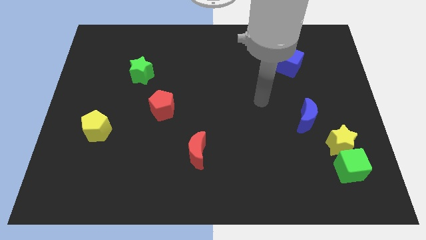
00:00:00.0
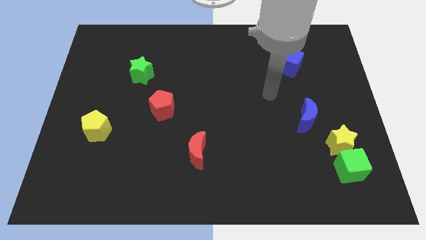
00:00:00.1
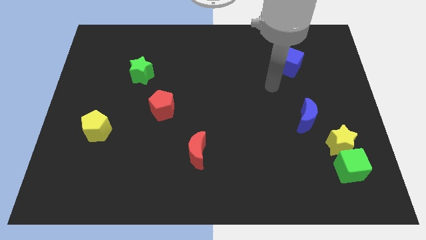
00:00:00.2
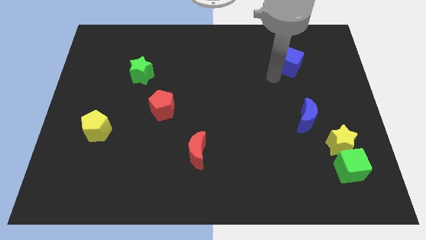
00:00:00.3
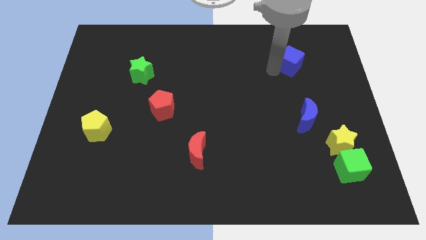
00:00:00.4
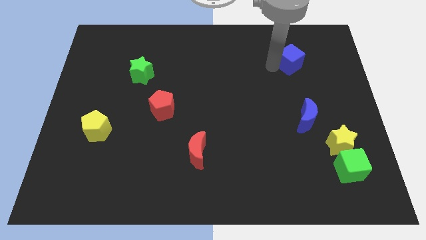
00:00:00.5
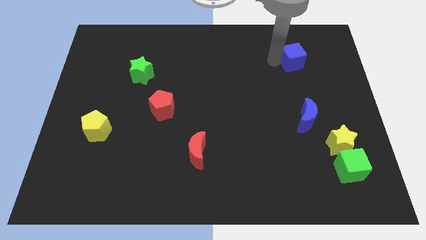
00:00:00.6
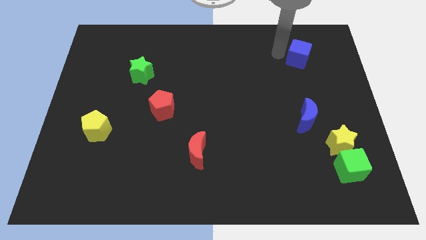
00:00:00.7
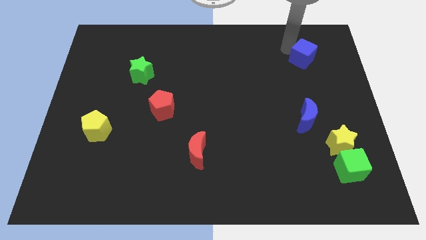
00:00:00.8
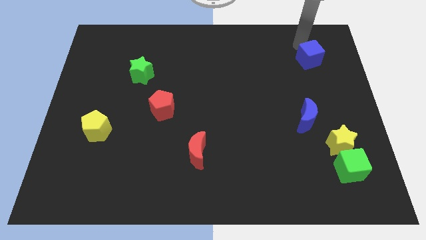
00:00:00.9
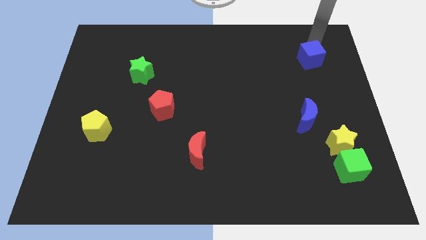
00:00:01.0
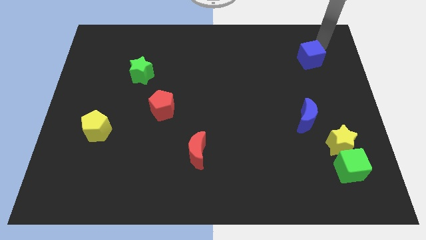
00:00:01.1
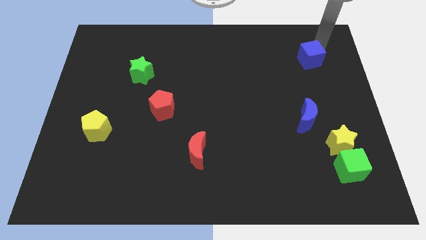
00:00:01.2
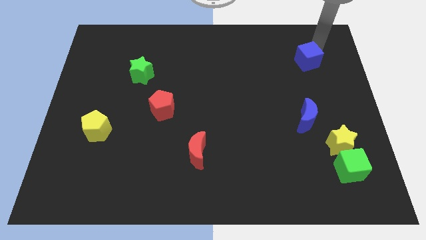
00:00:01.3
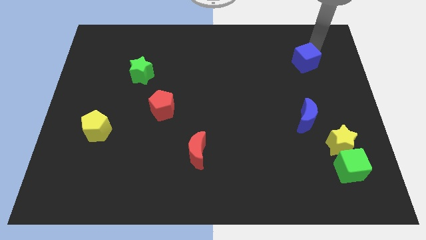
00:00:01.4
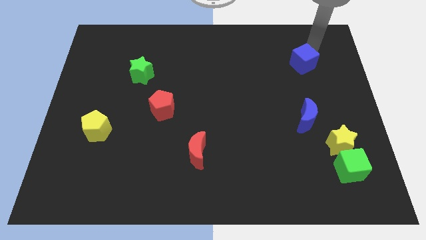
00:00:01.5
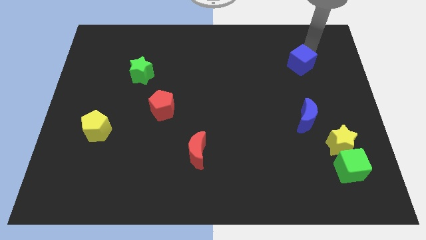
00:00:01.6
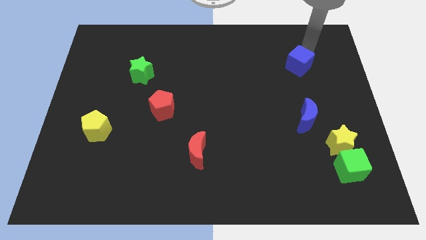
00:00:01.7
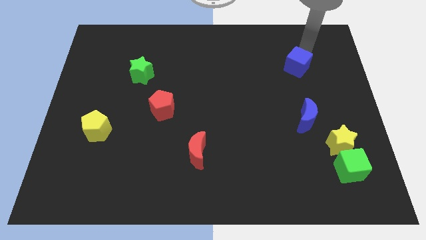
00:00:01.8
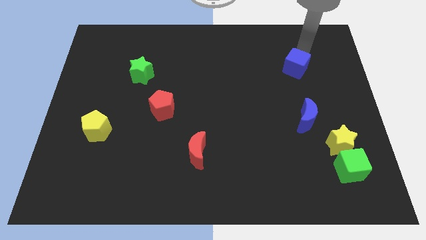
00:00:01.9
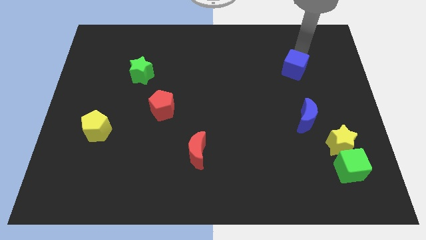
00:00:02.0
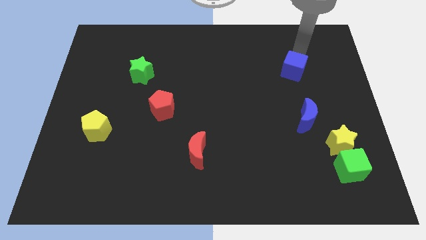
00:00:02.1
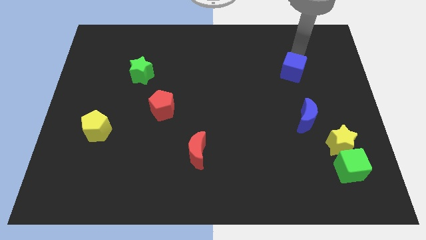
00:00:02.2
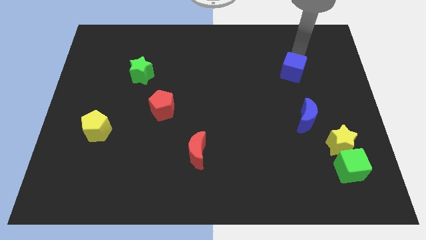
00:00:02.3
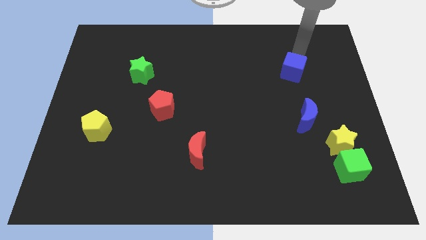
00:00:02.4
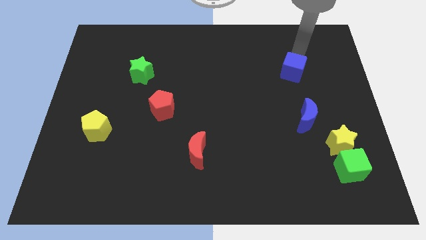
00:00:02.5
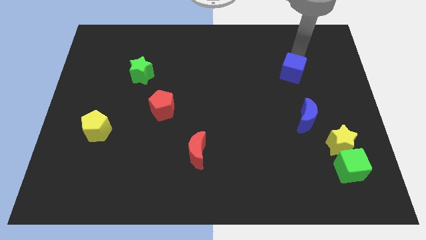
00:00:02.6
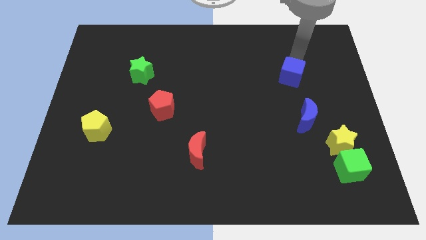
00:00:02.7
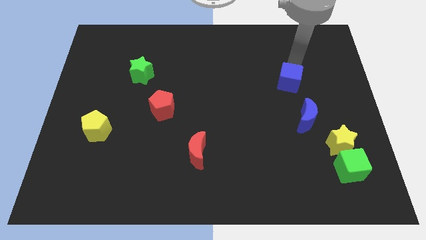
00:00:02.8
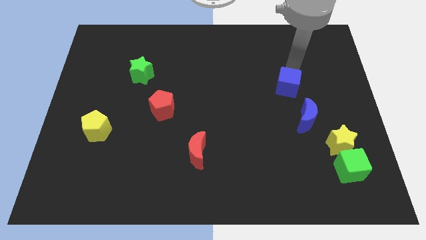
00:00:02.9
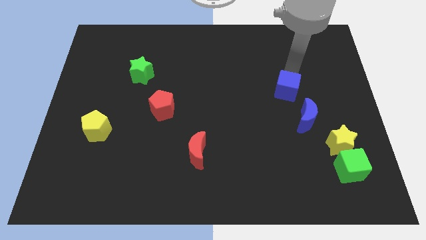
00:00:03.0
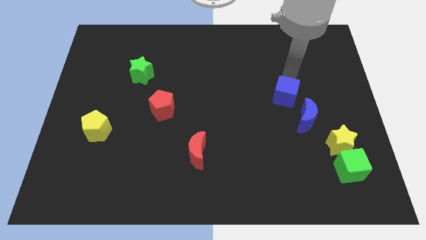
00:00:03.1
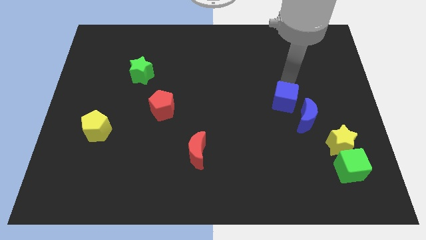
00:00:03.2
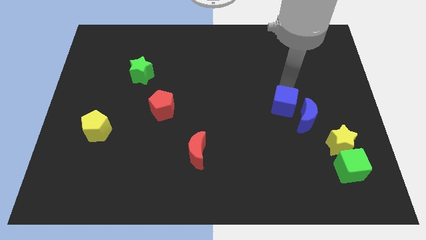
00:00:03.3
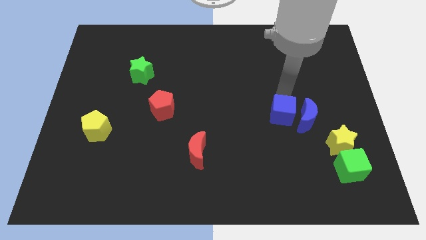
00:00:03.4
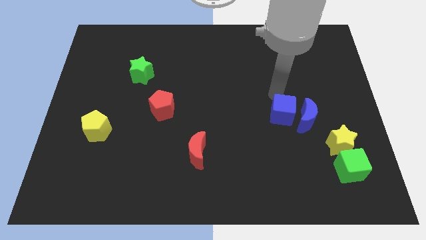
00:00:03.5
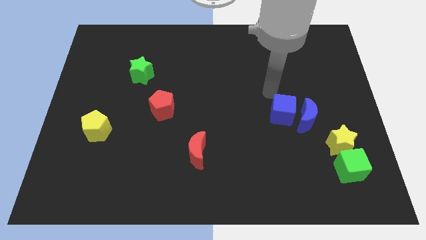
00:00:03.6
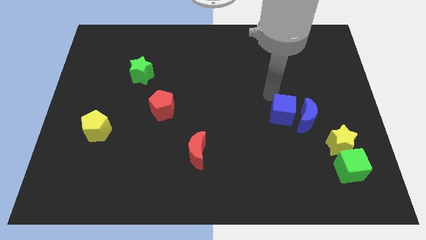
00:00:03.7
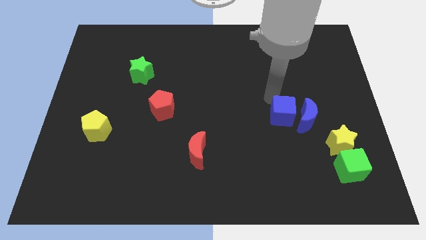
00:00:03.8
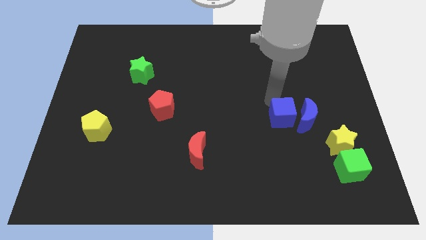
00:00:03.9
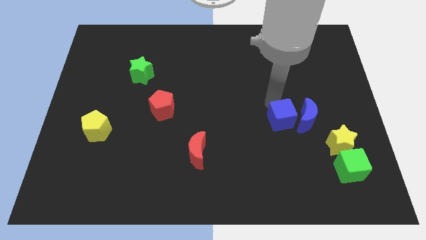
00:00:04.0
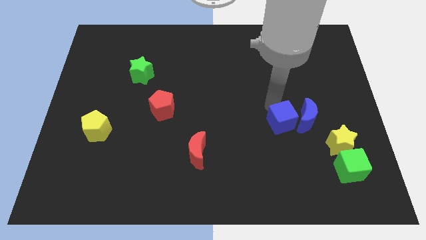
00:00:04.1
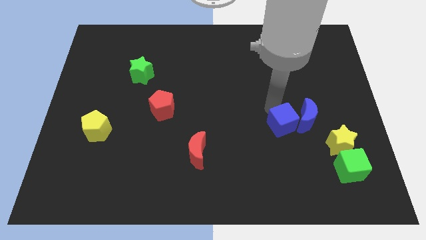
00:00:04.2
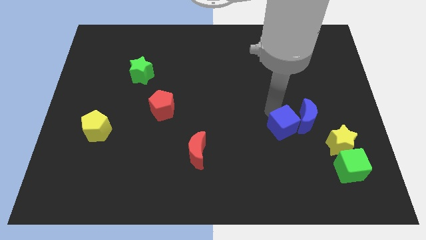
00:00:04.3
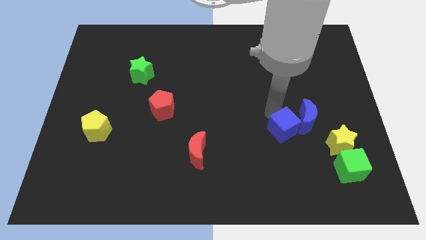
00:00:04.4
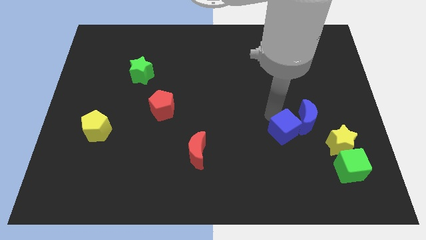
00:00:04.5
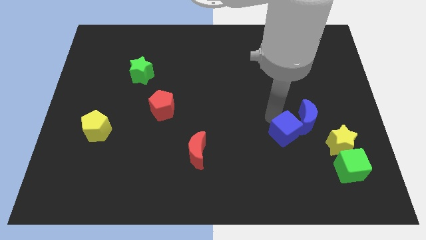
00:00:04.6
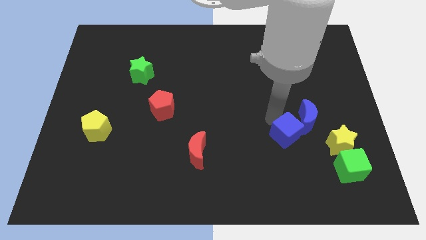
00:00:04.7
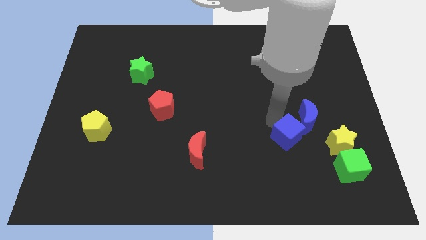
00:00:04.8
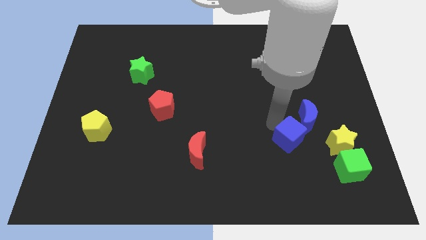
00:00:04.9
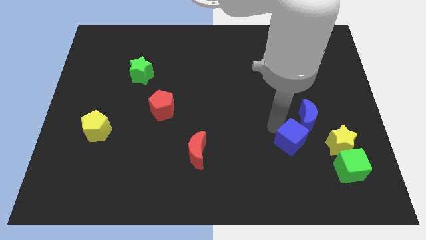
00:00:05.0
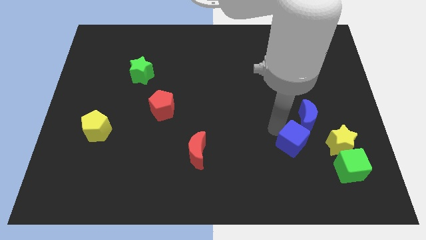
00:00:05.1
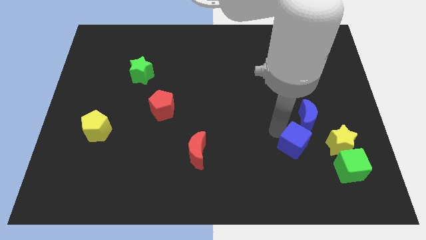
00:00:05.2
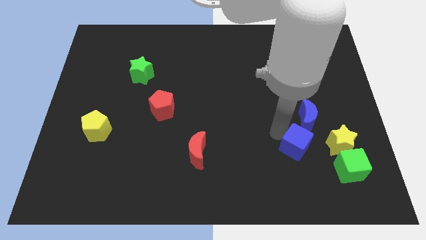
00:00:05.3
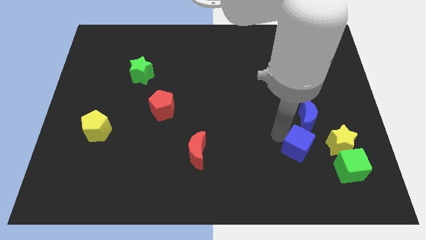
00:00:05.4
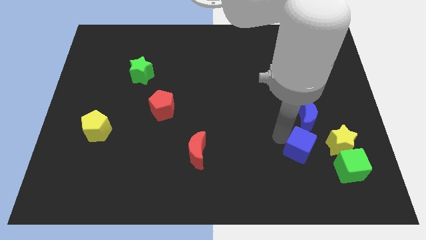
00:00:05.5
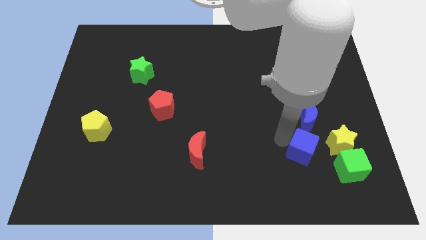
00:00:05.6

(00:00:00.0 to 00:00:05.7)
slide the blue cube to the bottom left of the yellow star

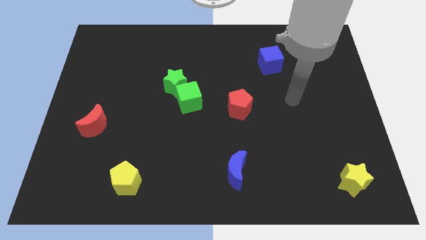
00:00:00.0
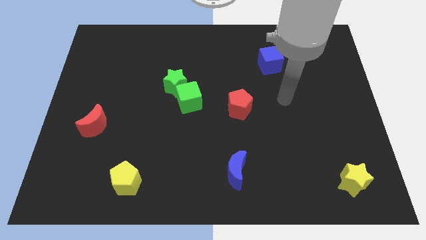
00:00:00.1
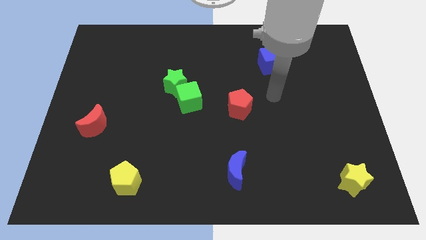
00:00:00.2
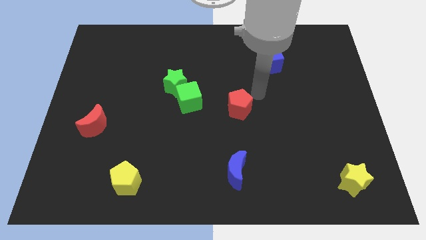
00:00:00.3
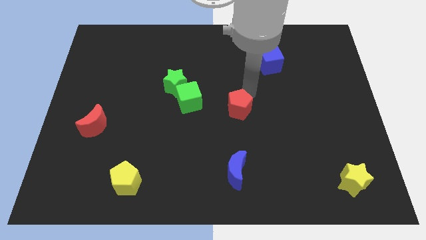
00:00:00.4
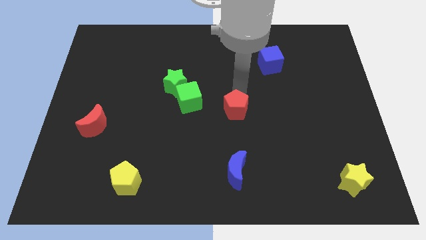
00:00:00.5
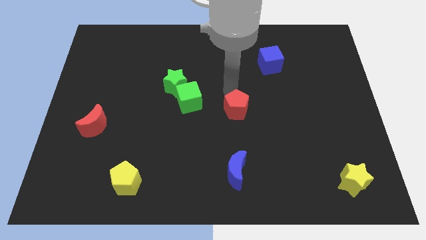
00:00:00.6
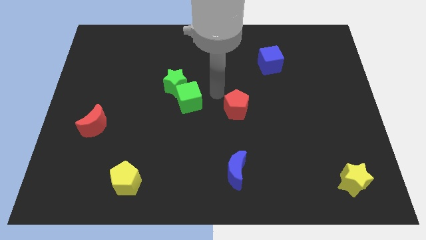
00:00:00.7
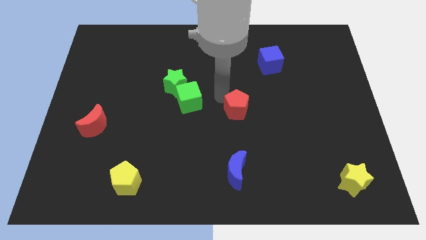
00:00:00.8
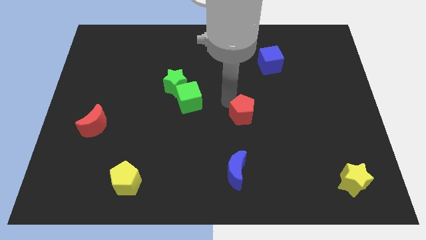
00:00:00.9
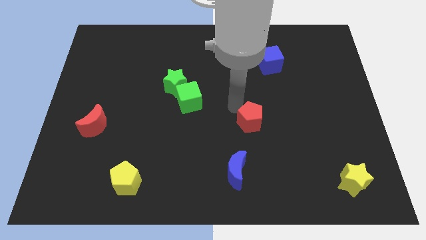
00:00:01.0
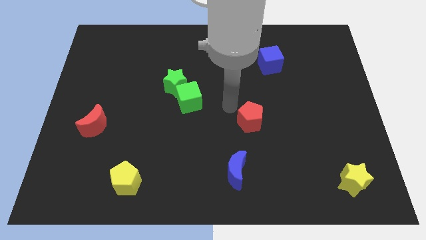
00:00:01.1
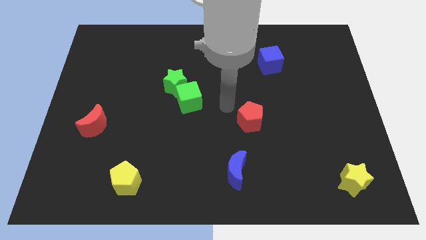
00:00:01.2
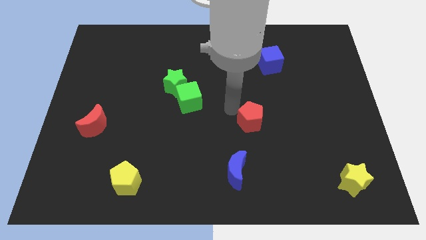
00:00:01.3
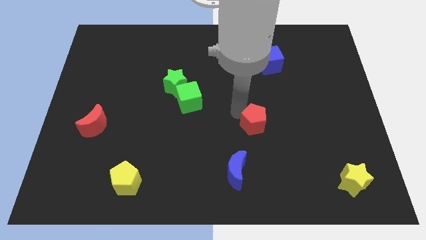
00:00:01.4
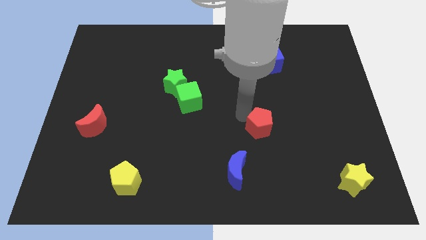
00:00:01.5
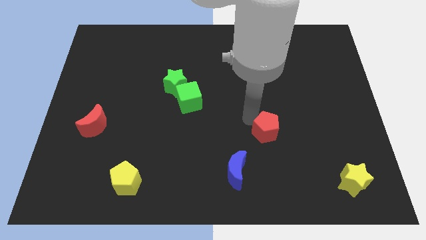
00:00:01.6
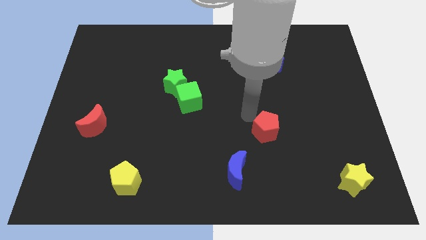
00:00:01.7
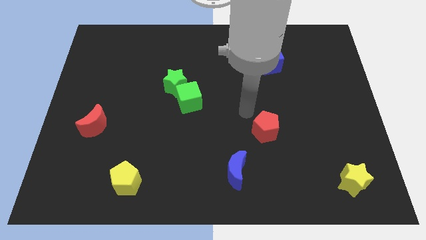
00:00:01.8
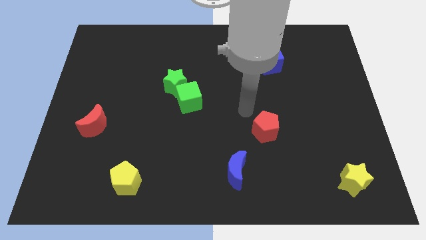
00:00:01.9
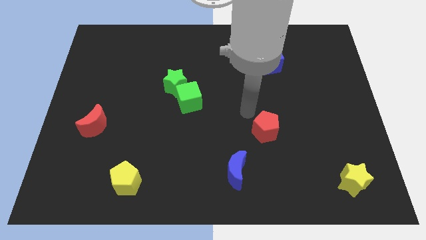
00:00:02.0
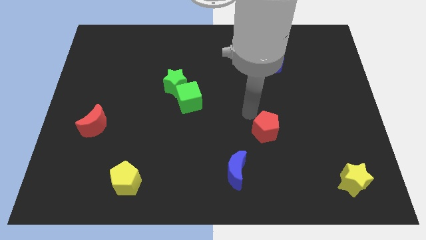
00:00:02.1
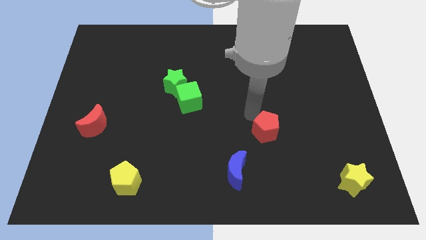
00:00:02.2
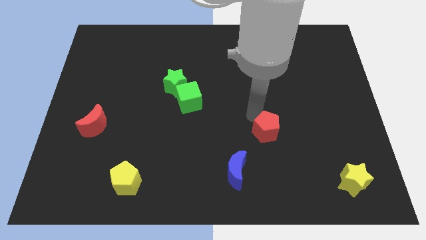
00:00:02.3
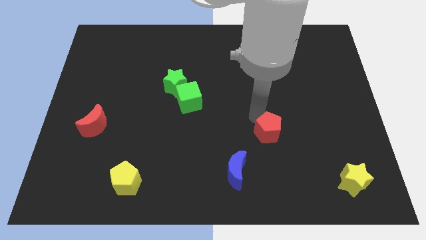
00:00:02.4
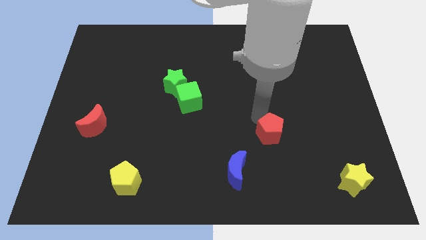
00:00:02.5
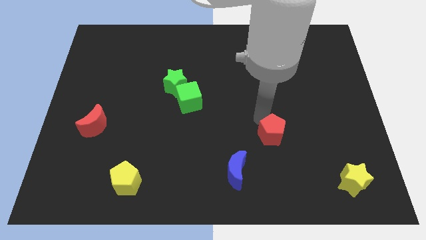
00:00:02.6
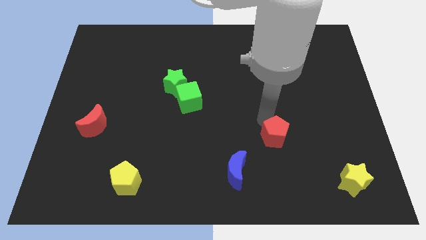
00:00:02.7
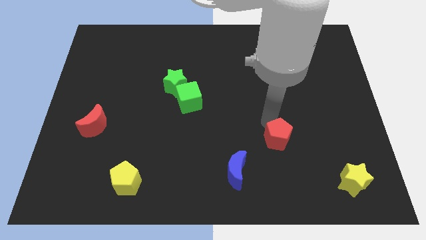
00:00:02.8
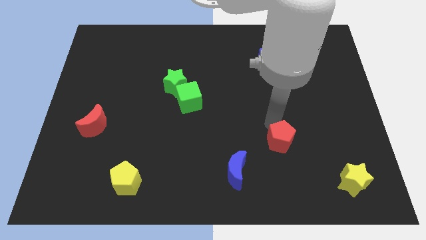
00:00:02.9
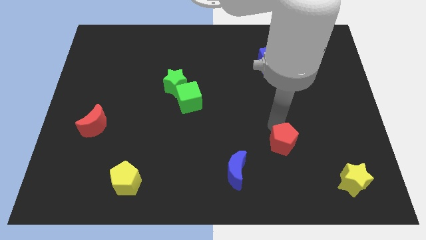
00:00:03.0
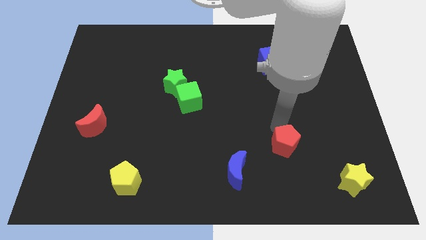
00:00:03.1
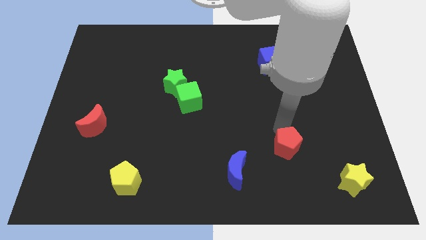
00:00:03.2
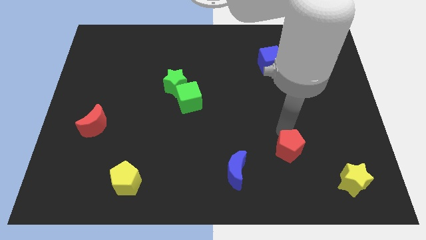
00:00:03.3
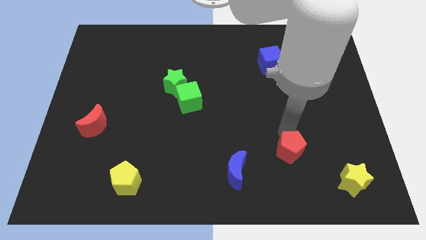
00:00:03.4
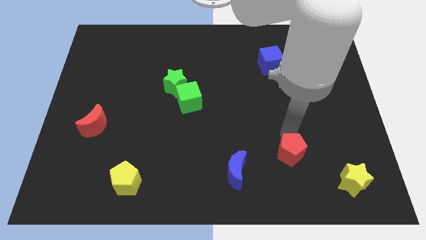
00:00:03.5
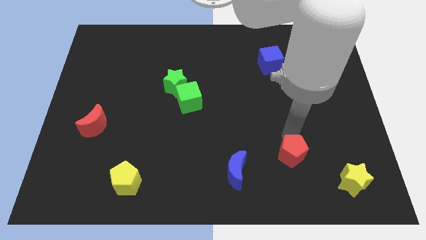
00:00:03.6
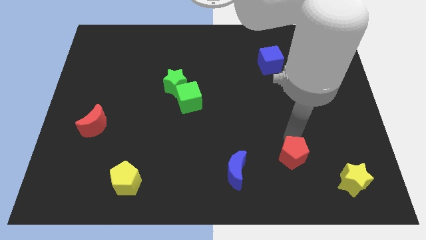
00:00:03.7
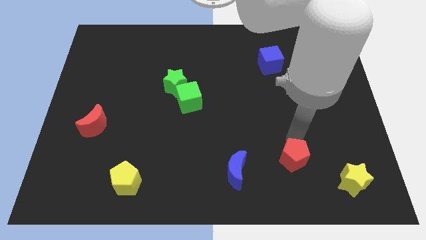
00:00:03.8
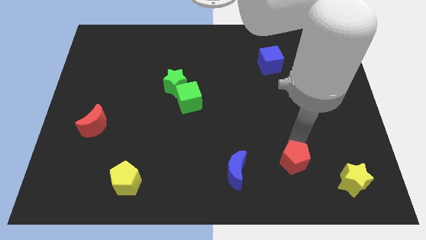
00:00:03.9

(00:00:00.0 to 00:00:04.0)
slide the red pentagon left of the yellow star
